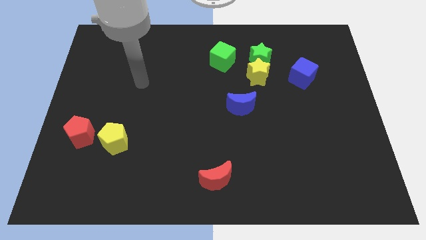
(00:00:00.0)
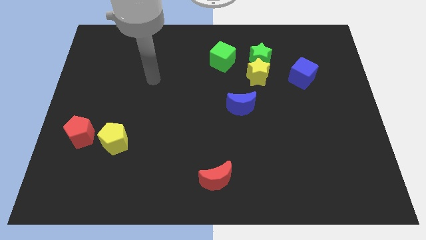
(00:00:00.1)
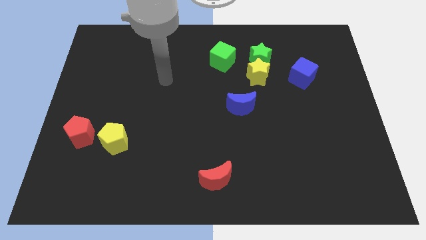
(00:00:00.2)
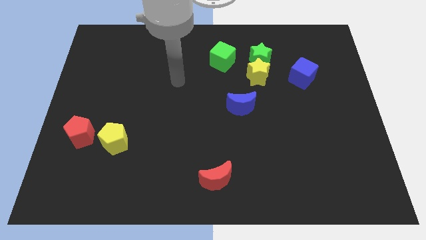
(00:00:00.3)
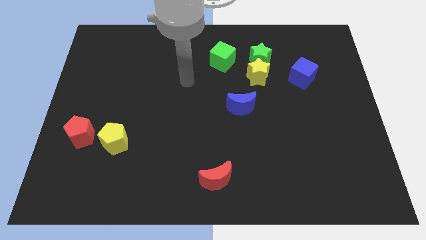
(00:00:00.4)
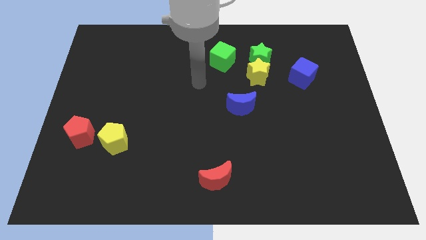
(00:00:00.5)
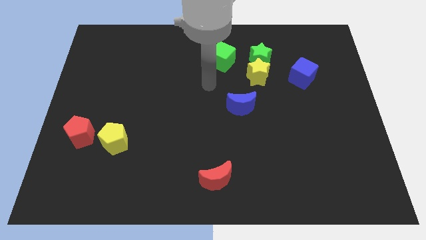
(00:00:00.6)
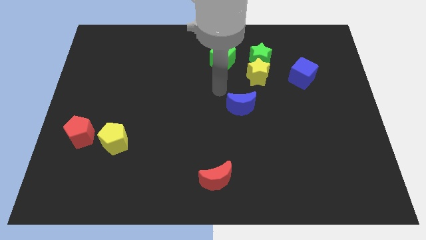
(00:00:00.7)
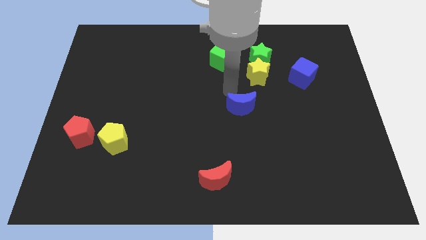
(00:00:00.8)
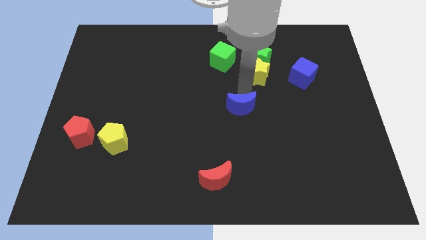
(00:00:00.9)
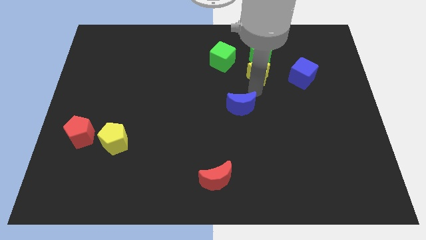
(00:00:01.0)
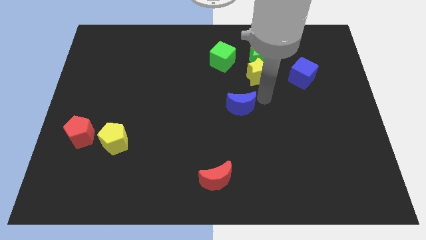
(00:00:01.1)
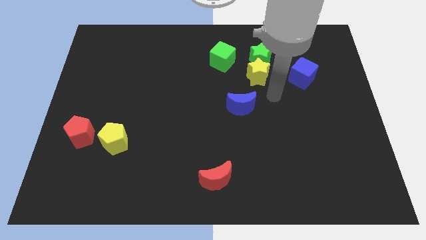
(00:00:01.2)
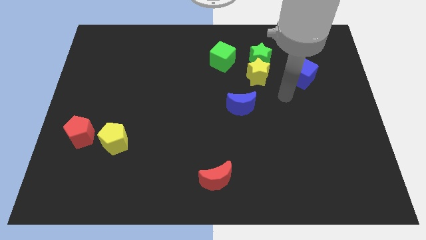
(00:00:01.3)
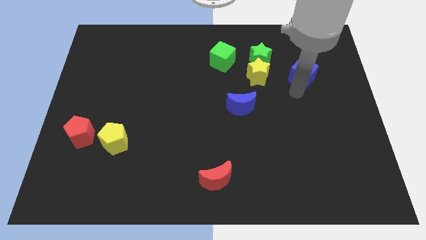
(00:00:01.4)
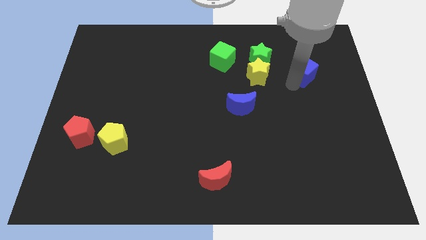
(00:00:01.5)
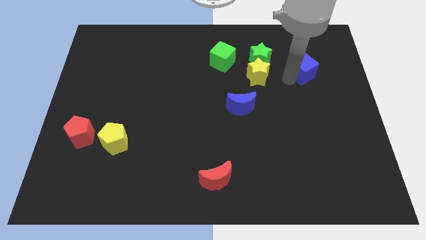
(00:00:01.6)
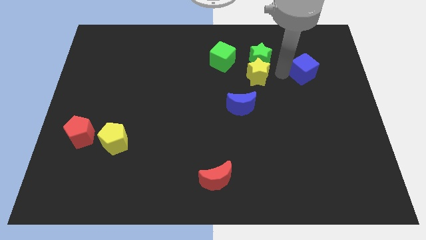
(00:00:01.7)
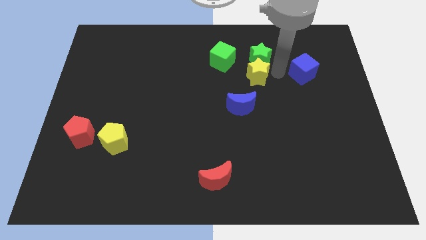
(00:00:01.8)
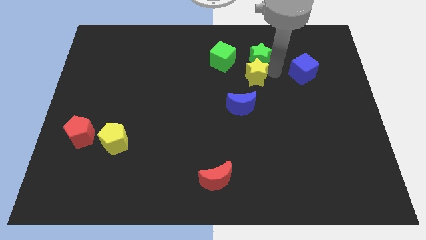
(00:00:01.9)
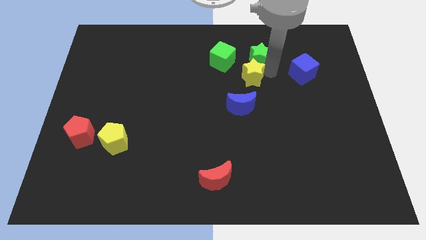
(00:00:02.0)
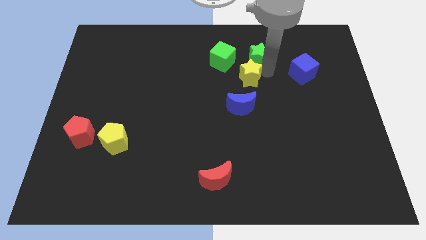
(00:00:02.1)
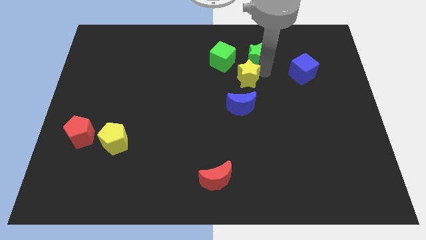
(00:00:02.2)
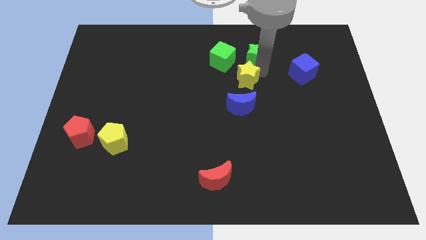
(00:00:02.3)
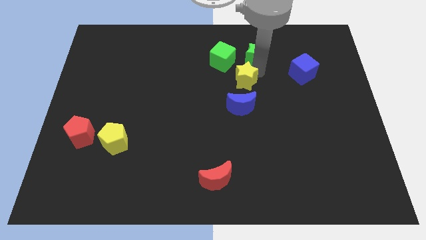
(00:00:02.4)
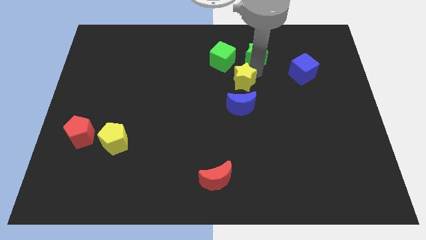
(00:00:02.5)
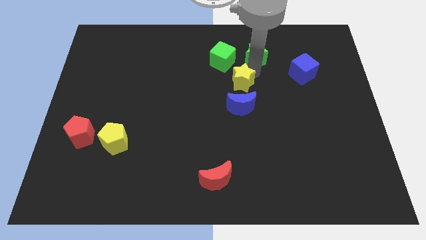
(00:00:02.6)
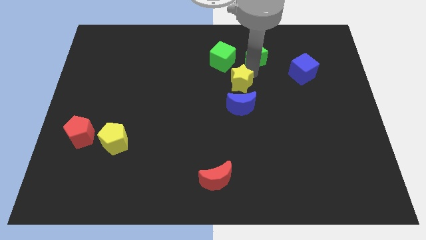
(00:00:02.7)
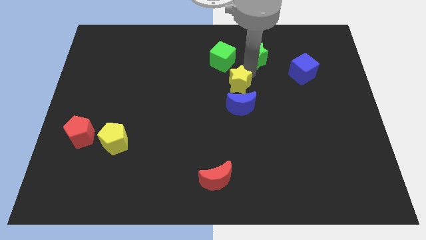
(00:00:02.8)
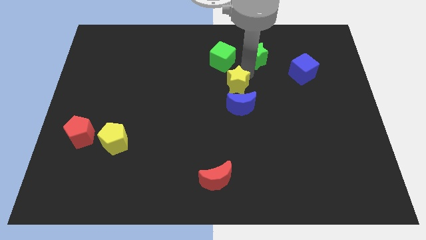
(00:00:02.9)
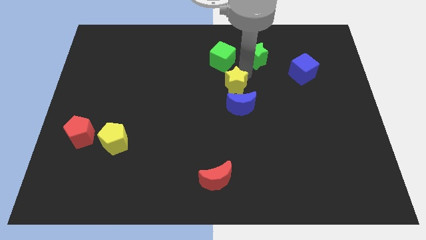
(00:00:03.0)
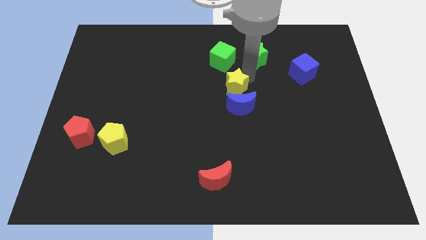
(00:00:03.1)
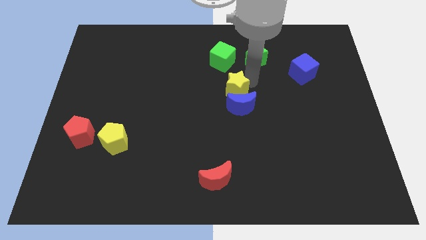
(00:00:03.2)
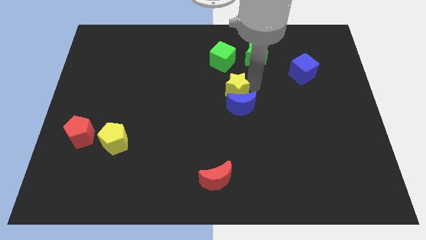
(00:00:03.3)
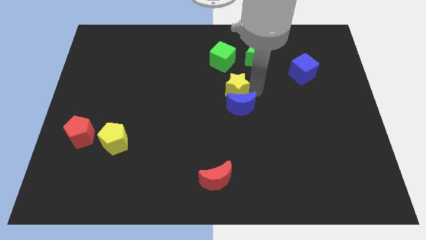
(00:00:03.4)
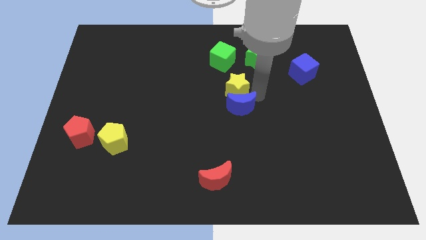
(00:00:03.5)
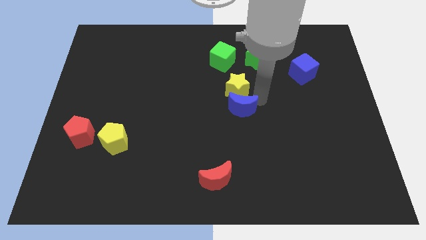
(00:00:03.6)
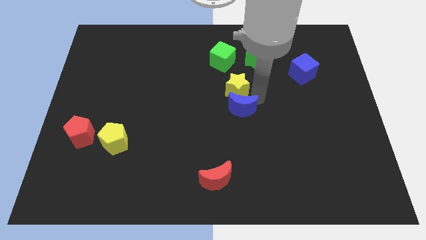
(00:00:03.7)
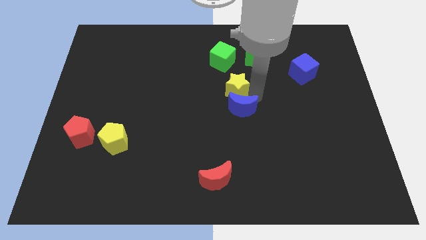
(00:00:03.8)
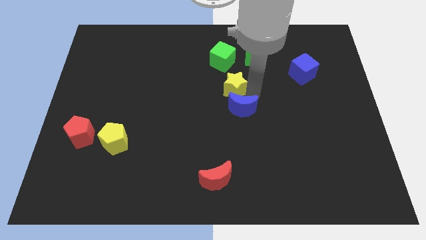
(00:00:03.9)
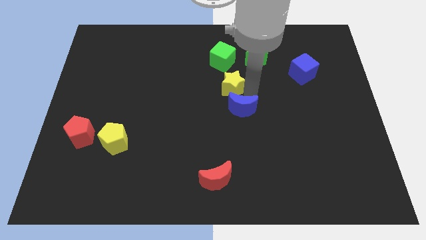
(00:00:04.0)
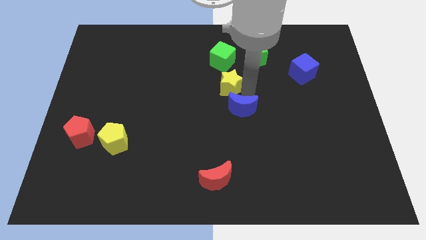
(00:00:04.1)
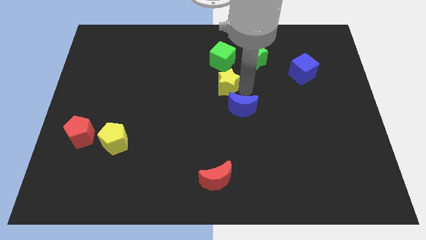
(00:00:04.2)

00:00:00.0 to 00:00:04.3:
move the yellow star slightly left

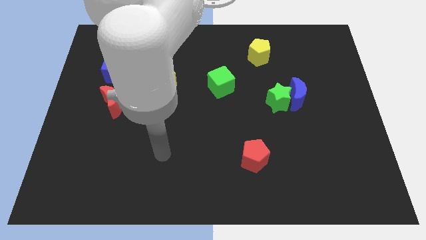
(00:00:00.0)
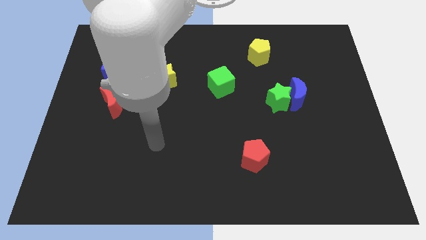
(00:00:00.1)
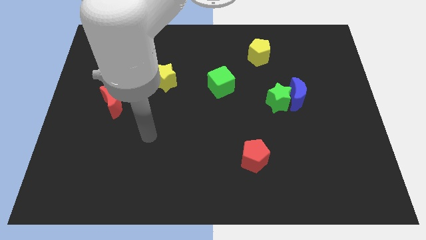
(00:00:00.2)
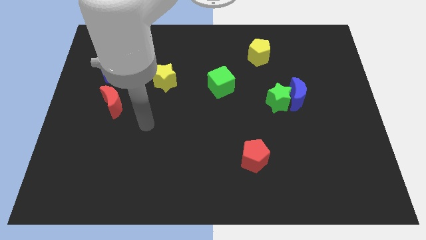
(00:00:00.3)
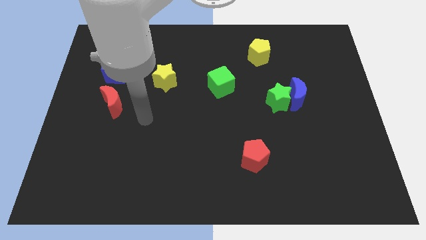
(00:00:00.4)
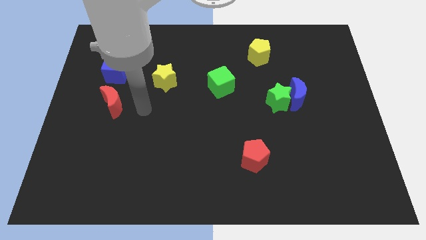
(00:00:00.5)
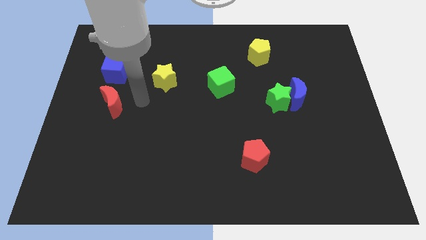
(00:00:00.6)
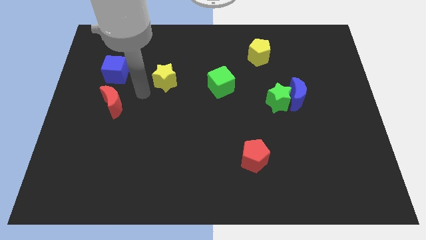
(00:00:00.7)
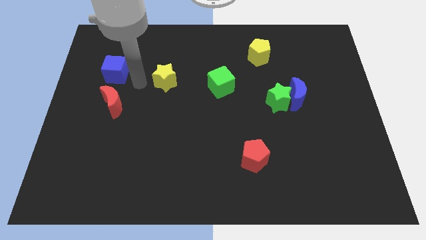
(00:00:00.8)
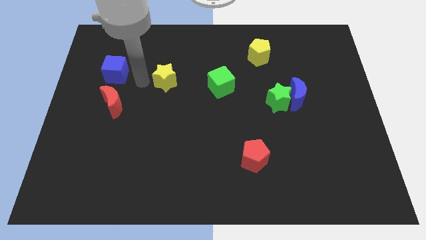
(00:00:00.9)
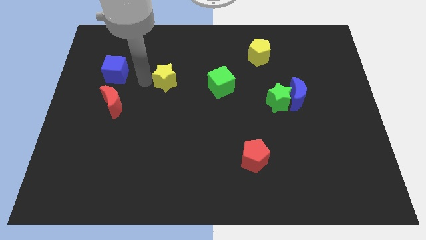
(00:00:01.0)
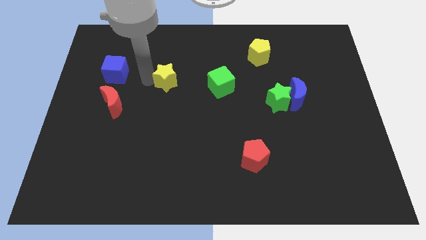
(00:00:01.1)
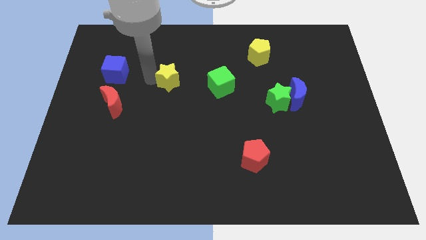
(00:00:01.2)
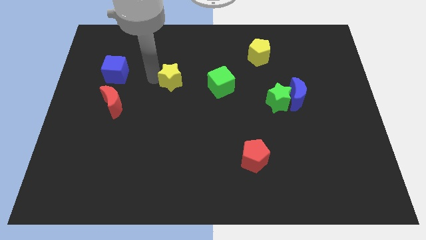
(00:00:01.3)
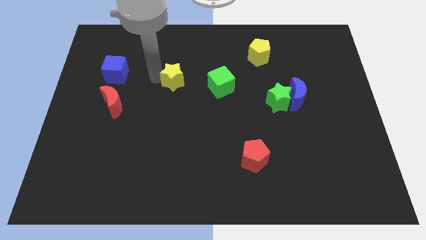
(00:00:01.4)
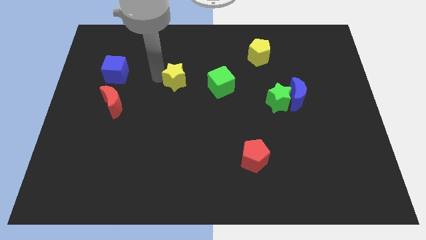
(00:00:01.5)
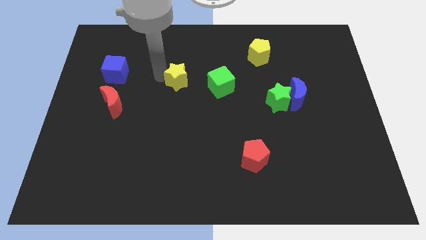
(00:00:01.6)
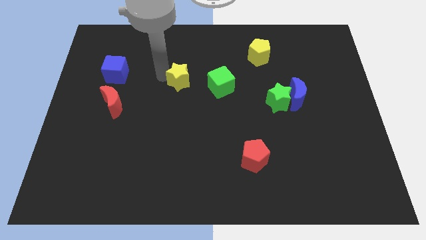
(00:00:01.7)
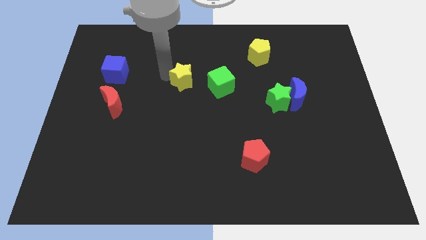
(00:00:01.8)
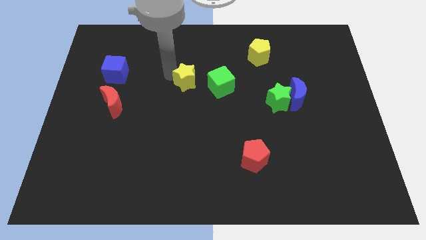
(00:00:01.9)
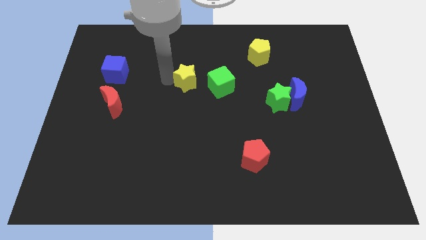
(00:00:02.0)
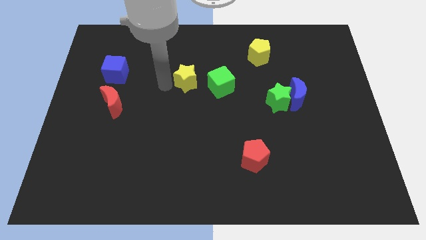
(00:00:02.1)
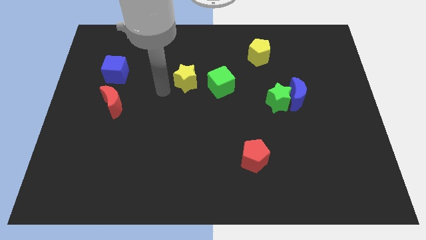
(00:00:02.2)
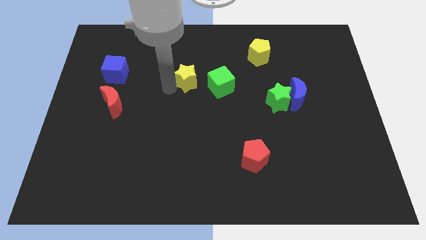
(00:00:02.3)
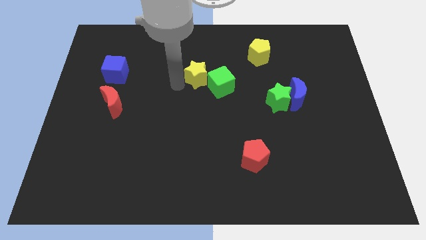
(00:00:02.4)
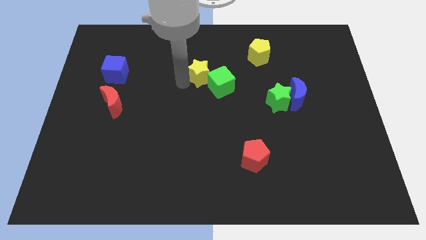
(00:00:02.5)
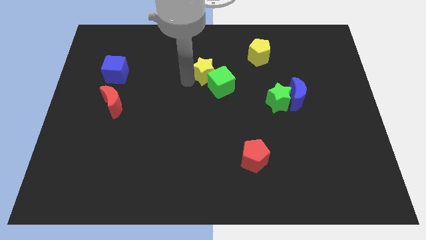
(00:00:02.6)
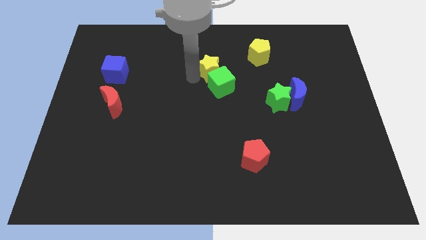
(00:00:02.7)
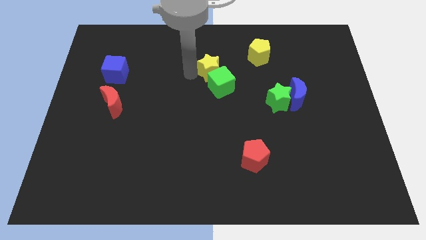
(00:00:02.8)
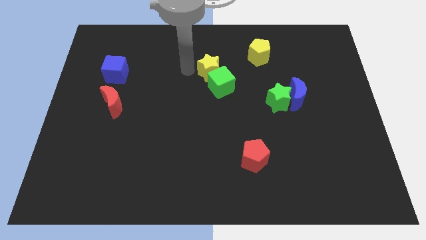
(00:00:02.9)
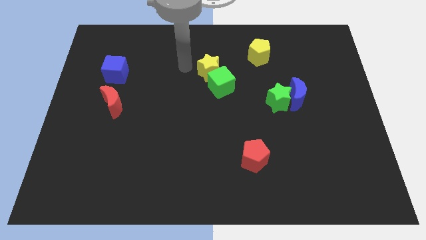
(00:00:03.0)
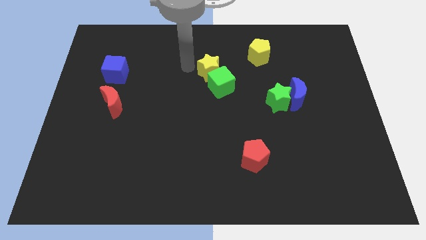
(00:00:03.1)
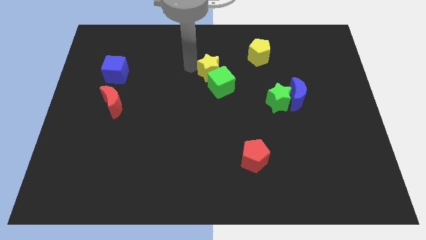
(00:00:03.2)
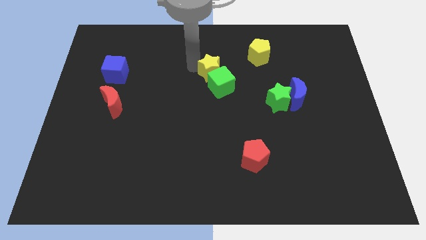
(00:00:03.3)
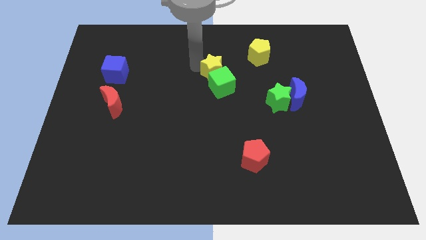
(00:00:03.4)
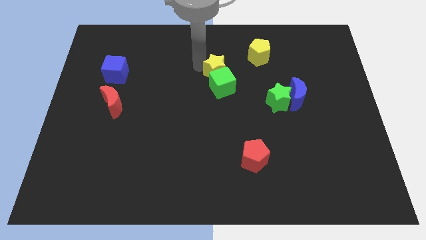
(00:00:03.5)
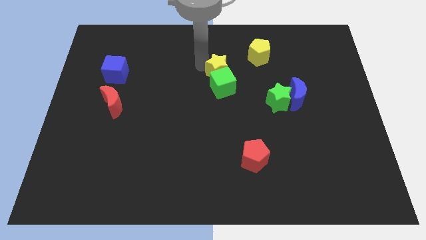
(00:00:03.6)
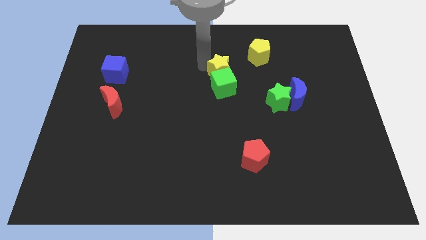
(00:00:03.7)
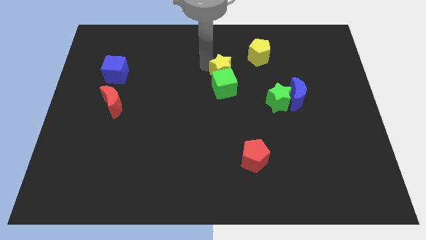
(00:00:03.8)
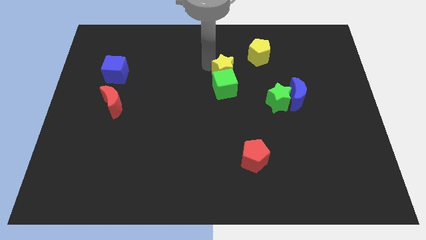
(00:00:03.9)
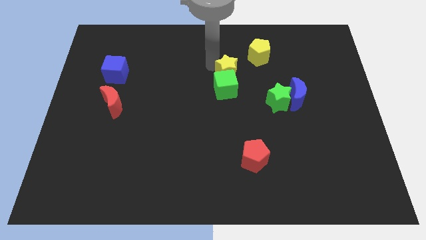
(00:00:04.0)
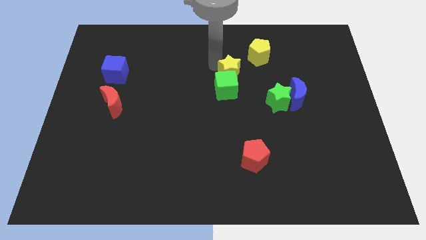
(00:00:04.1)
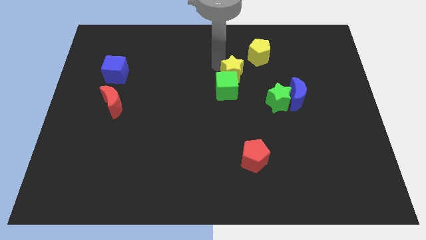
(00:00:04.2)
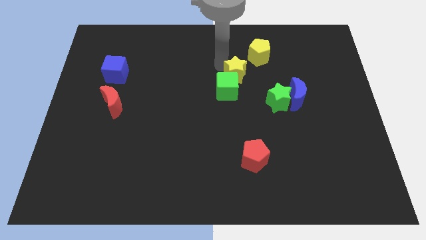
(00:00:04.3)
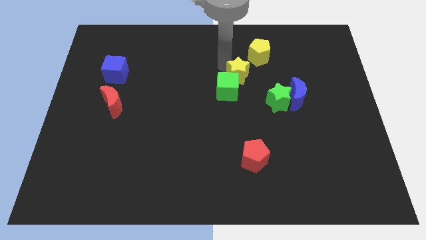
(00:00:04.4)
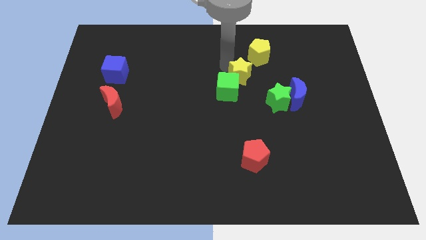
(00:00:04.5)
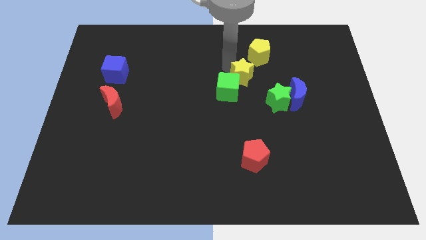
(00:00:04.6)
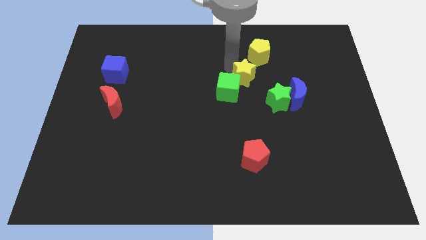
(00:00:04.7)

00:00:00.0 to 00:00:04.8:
move the yellow star right
